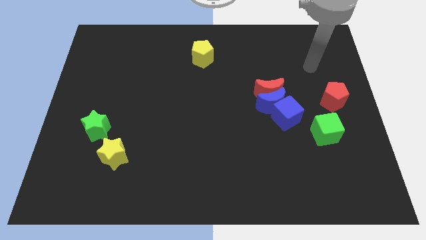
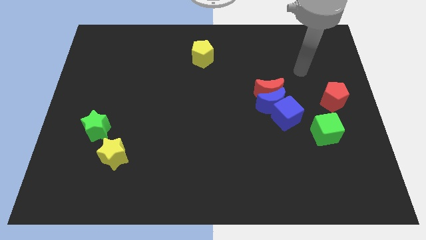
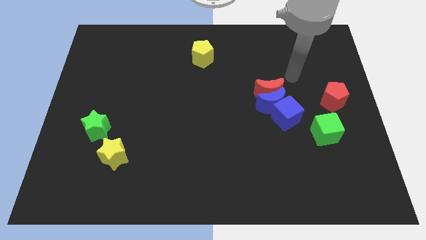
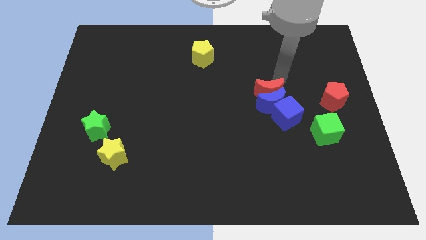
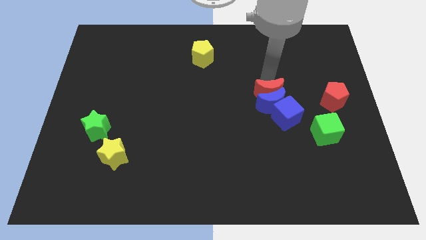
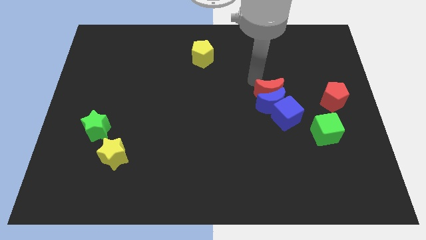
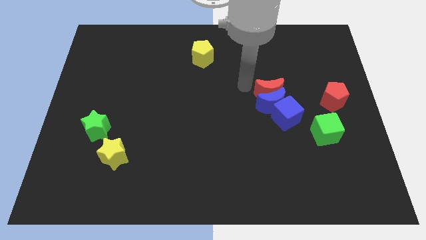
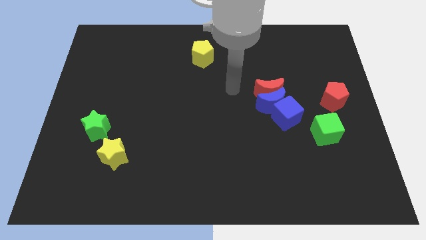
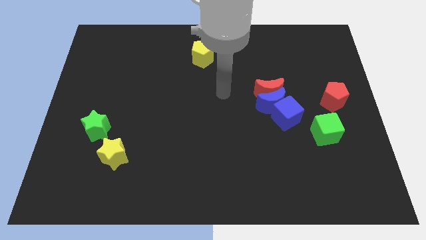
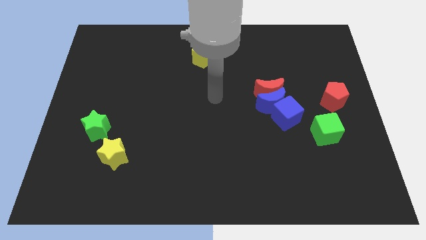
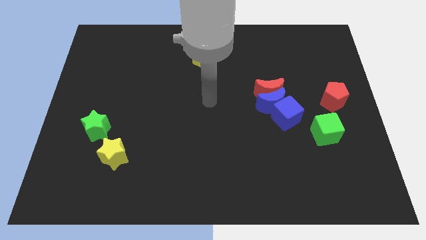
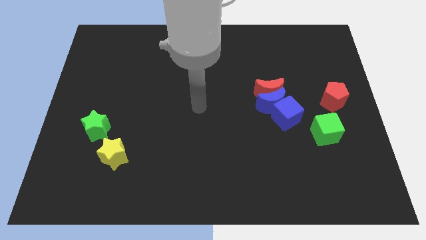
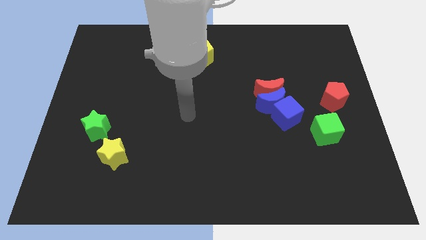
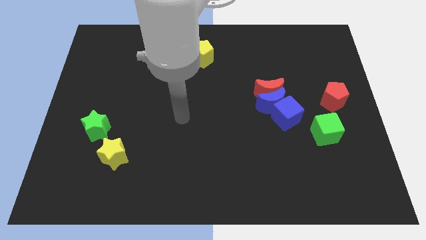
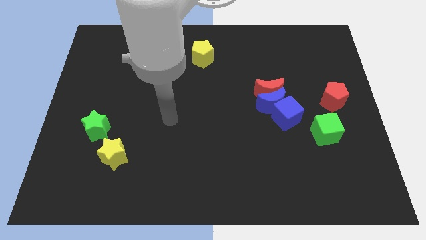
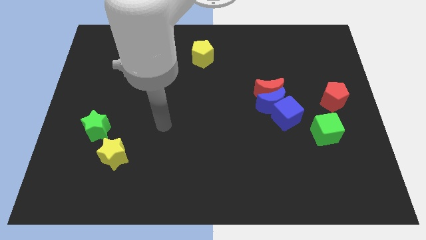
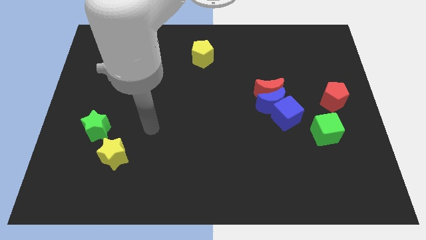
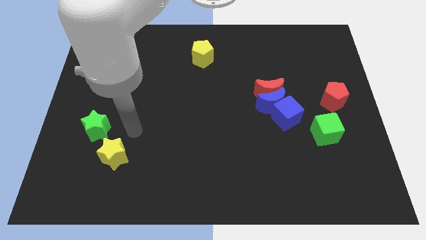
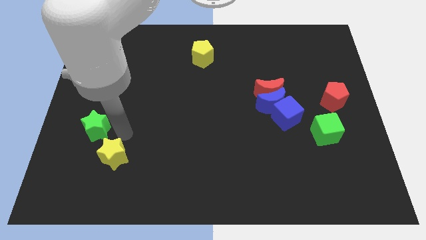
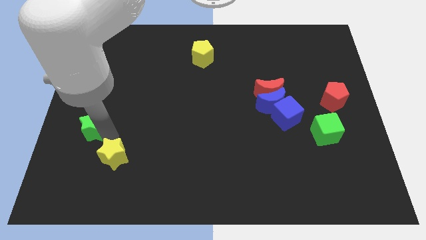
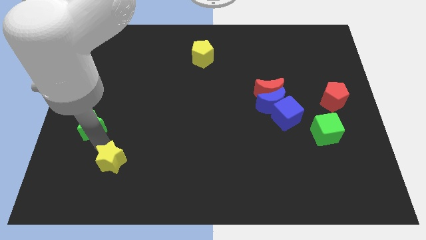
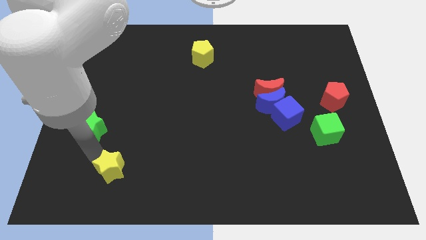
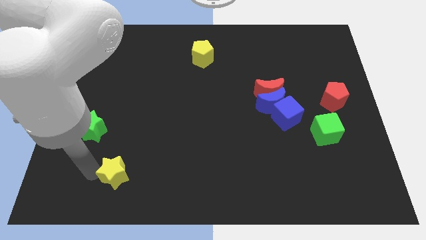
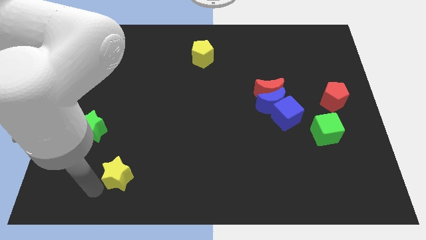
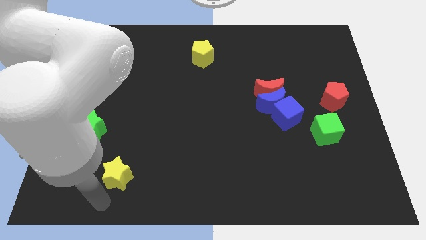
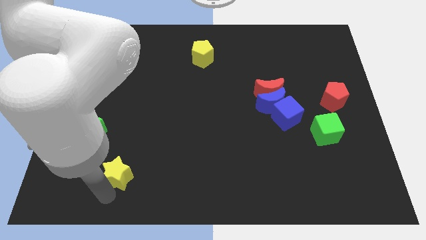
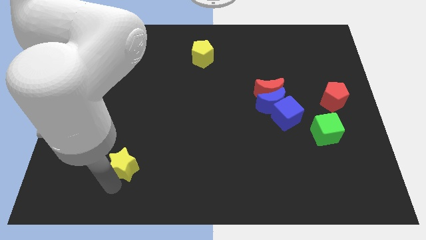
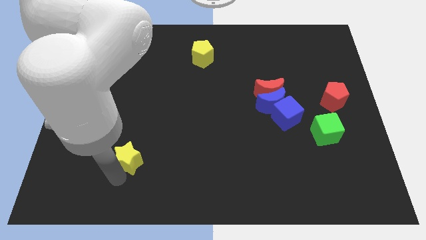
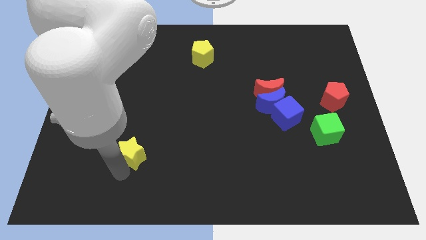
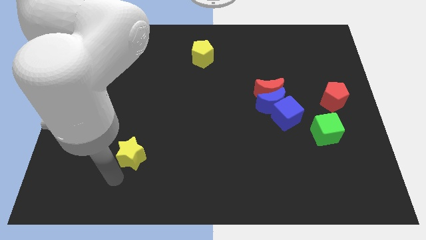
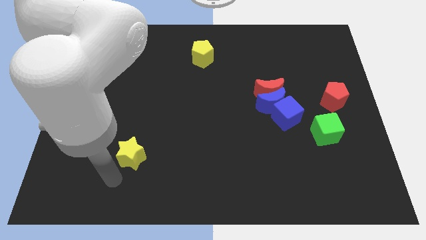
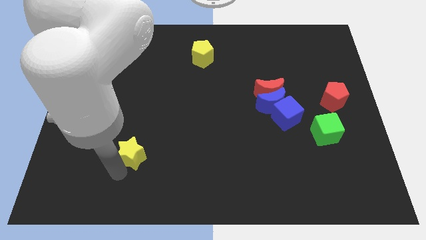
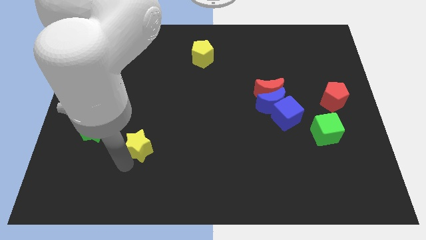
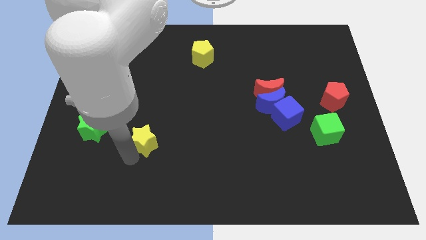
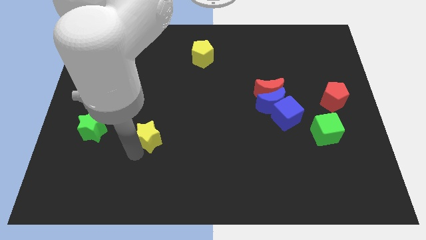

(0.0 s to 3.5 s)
move the yellow star upwards and right diagonally a little bit

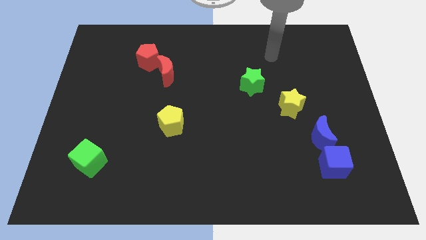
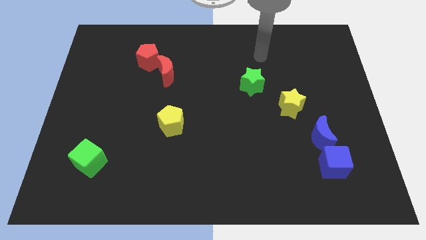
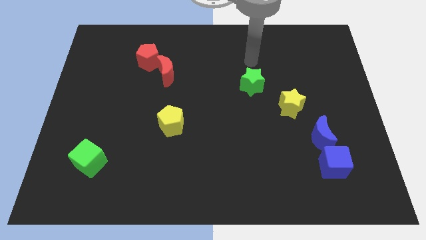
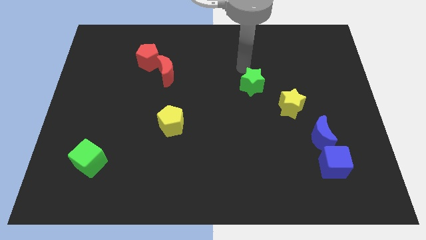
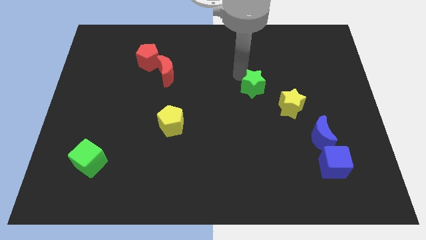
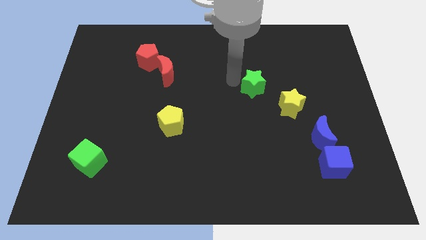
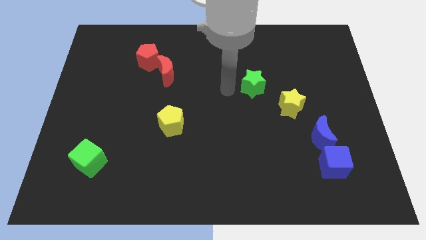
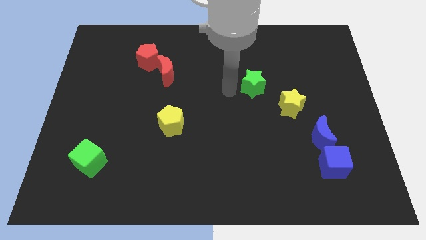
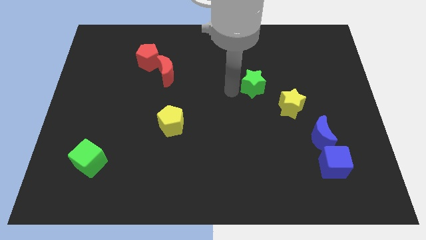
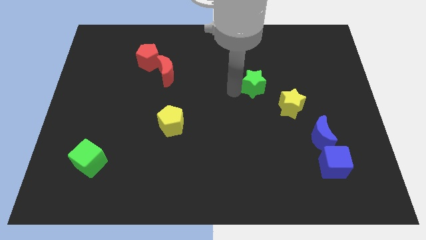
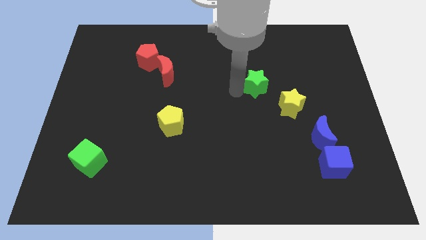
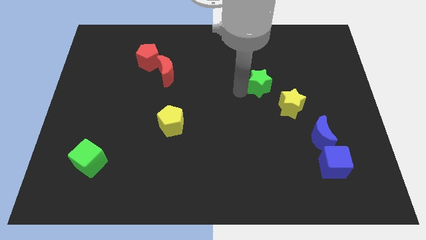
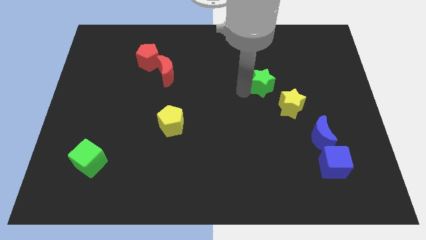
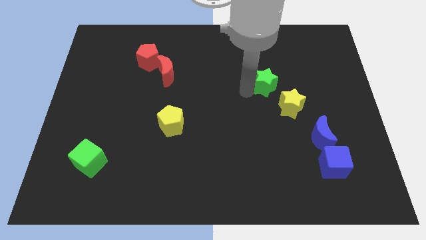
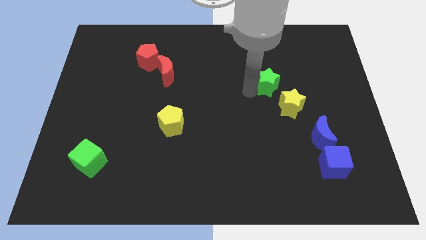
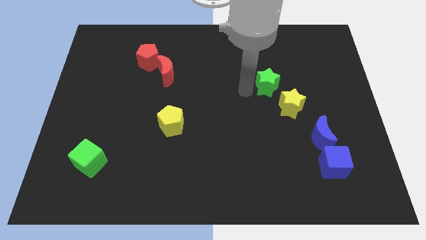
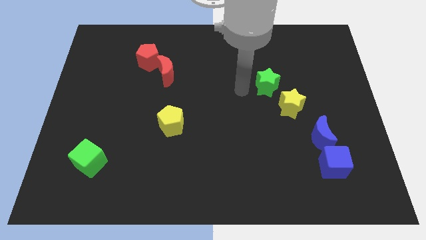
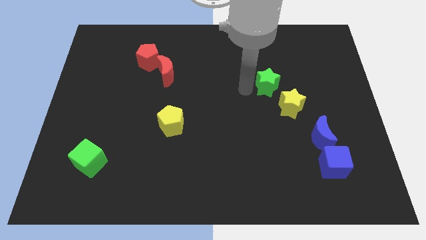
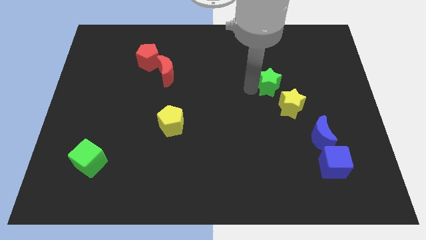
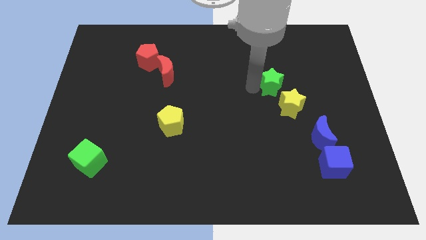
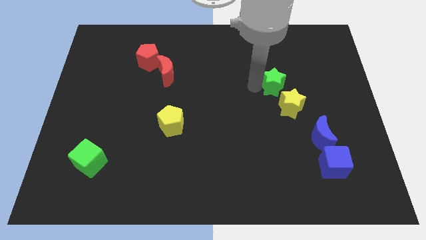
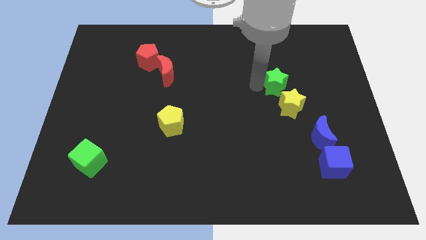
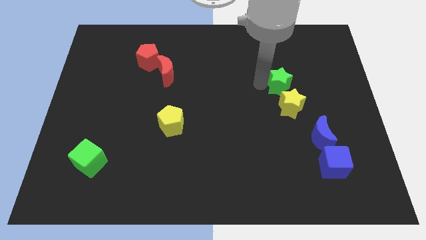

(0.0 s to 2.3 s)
slide the green star right a little

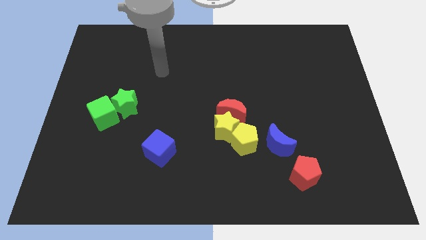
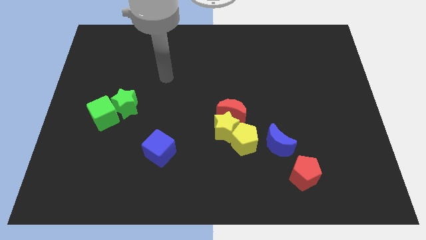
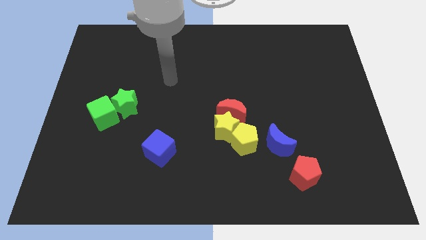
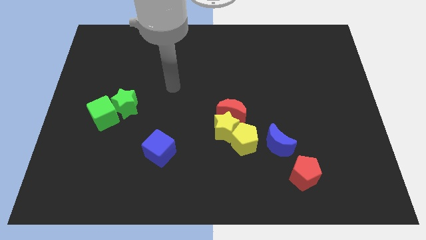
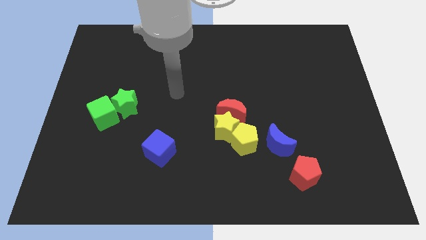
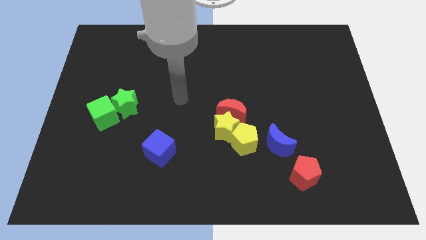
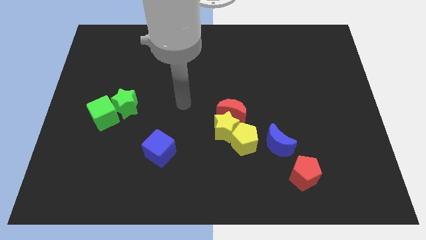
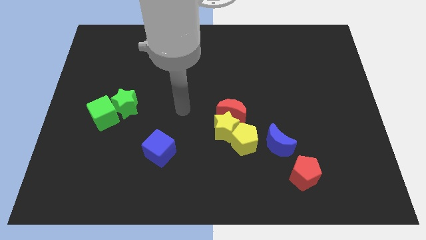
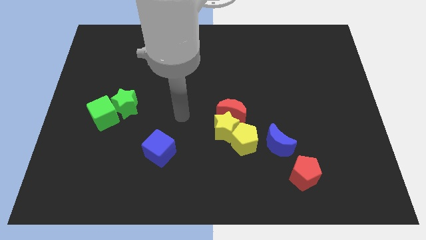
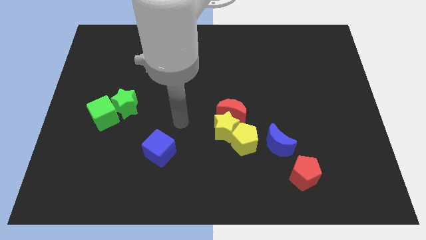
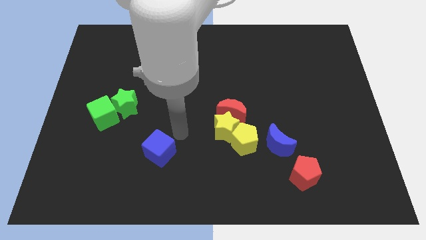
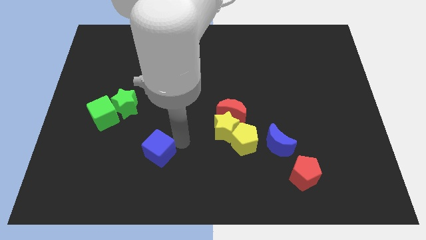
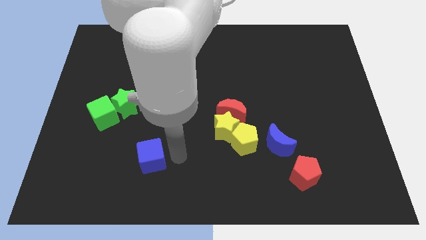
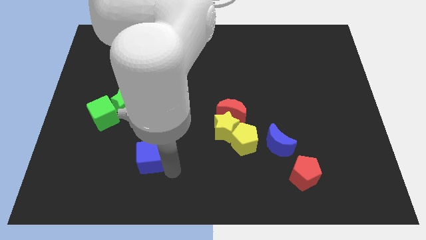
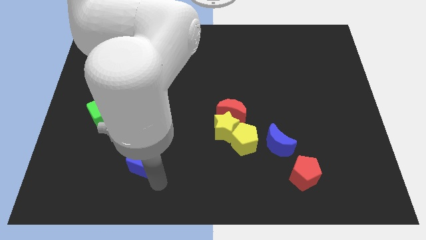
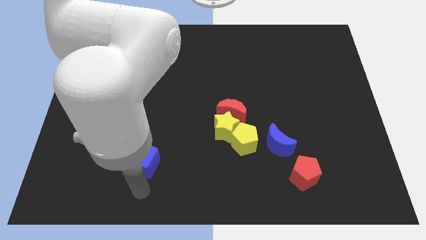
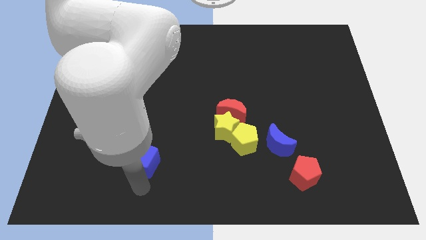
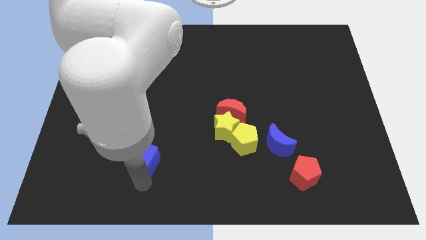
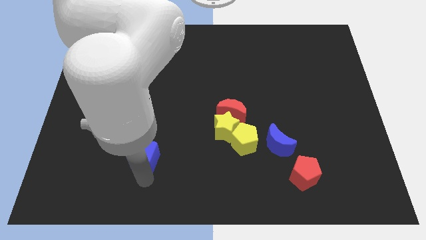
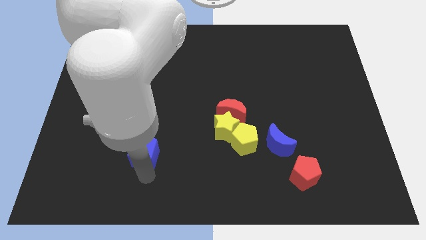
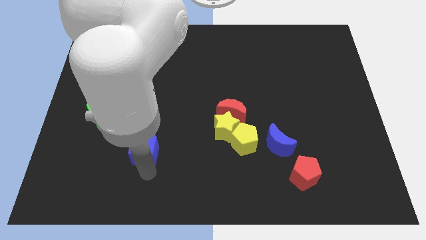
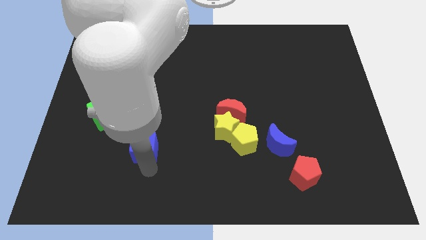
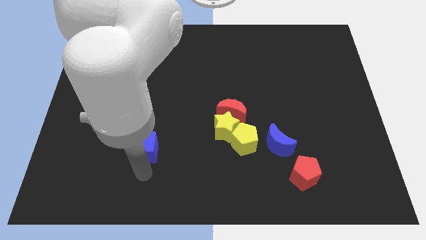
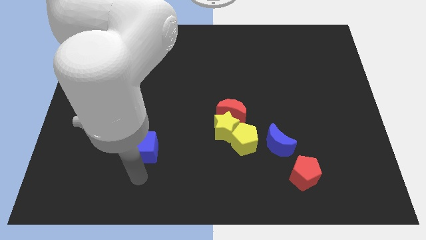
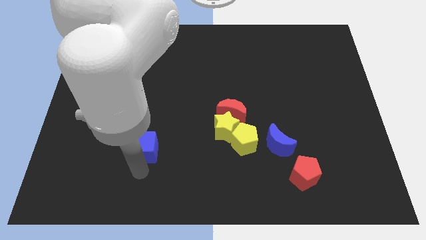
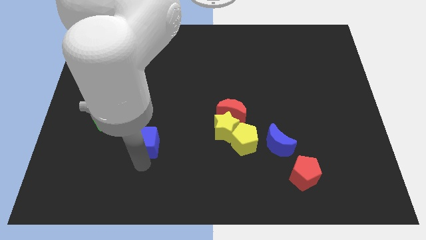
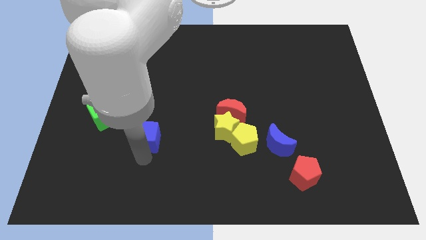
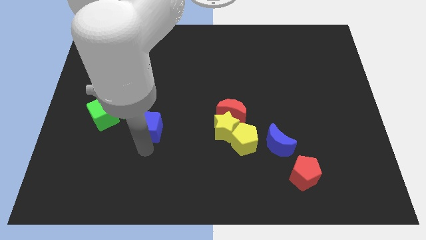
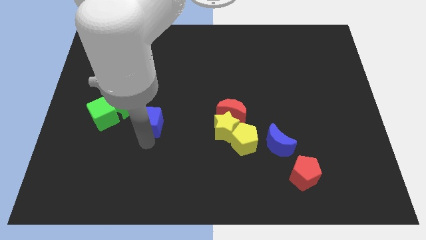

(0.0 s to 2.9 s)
slightly move the blue cube up
